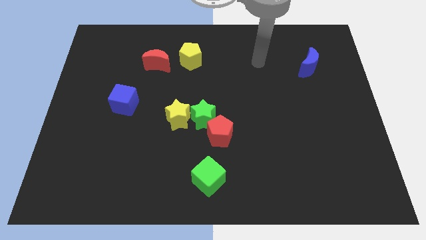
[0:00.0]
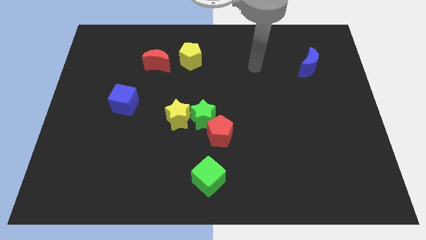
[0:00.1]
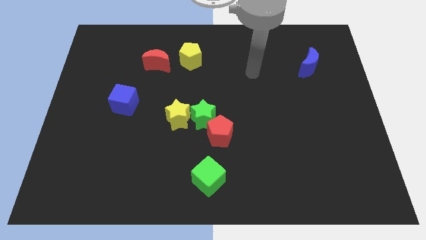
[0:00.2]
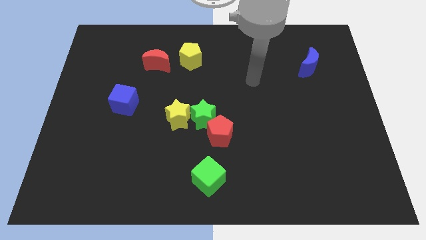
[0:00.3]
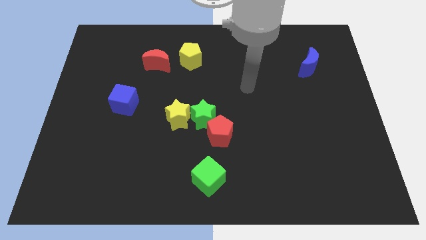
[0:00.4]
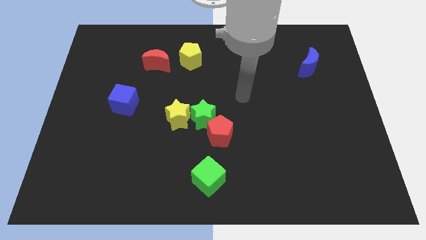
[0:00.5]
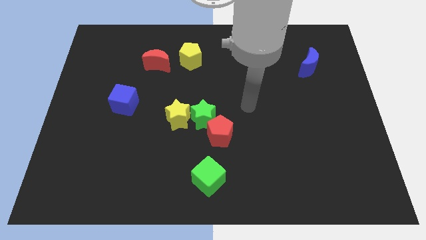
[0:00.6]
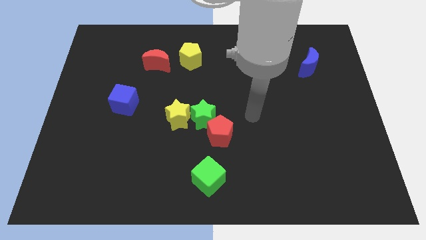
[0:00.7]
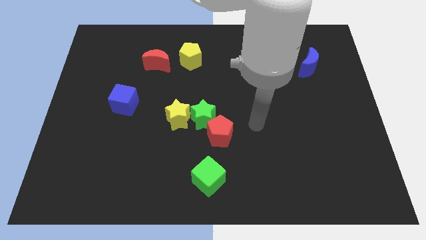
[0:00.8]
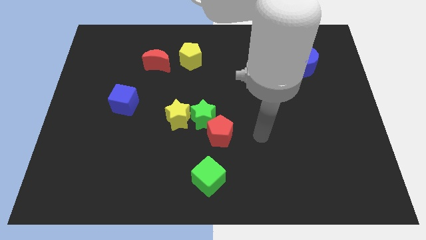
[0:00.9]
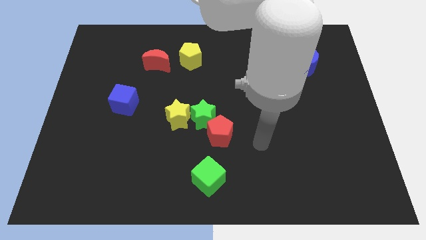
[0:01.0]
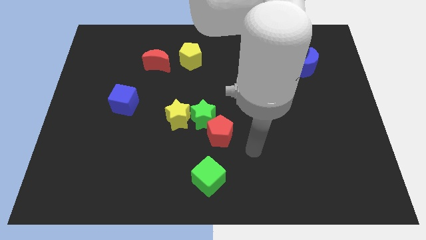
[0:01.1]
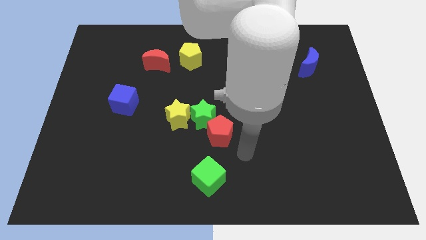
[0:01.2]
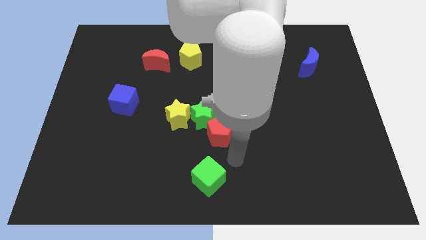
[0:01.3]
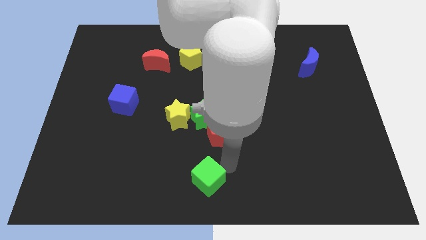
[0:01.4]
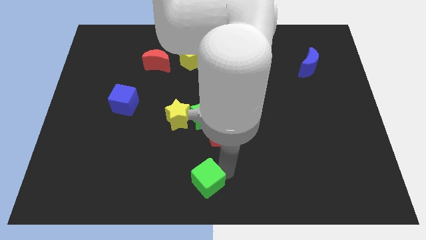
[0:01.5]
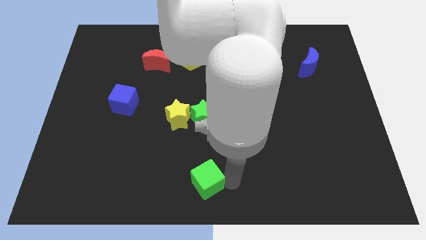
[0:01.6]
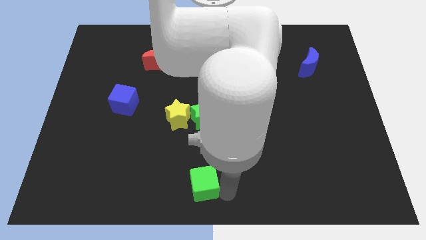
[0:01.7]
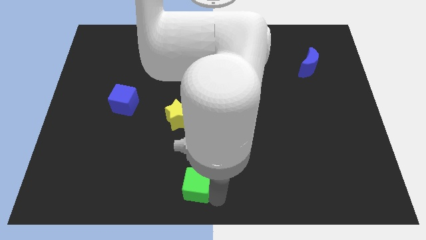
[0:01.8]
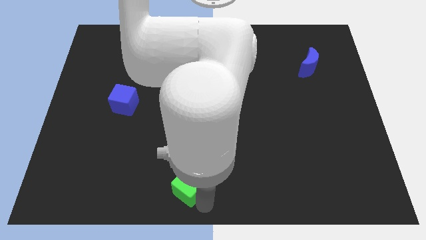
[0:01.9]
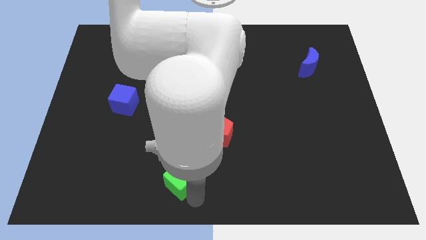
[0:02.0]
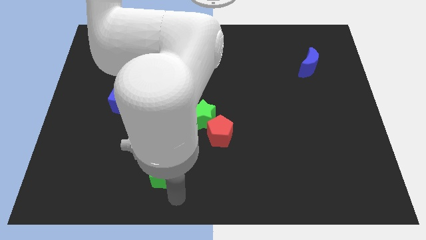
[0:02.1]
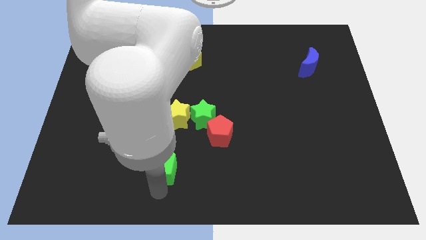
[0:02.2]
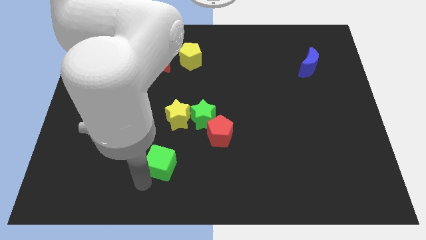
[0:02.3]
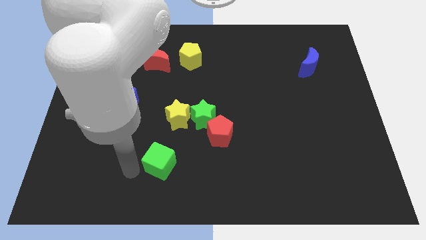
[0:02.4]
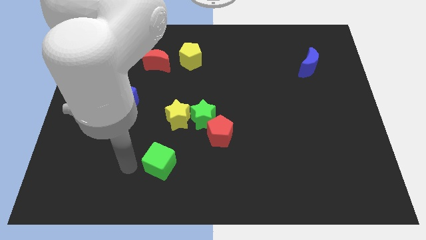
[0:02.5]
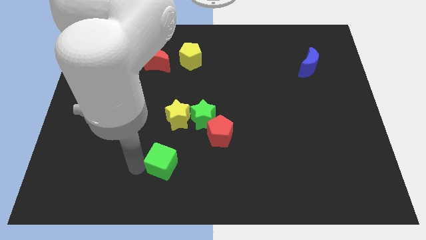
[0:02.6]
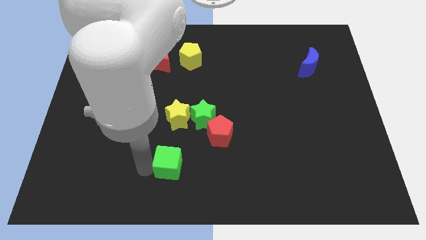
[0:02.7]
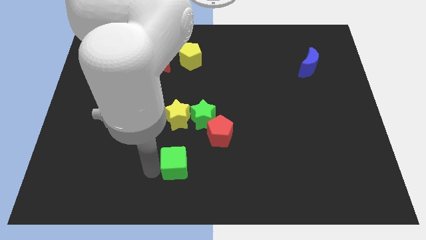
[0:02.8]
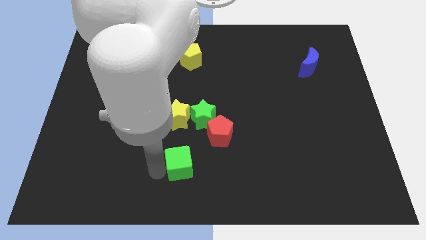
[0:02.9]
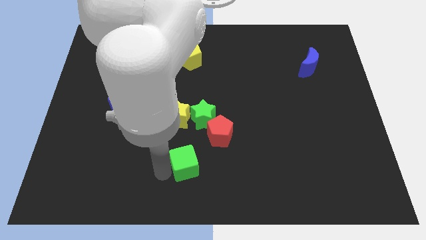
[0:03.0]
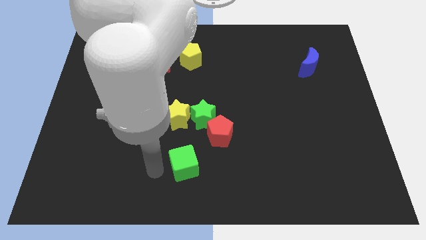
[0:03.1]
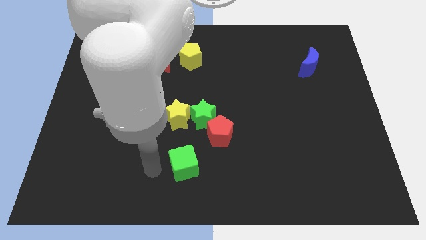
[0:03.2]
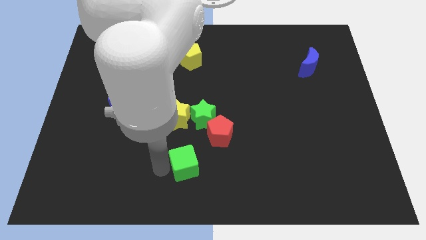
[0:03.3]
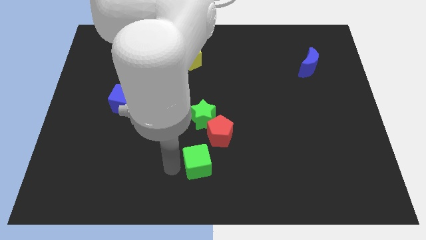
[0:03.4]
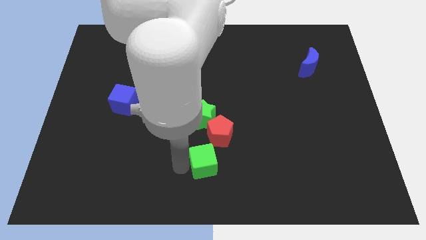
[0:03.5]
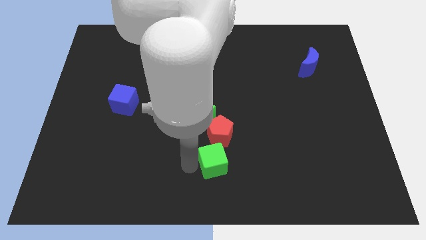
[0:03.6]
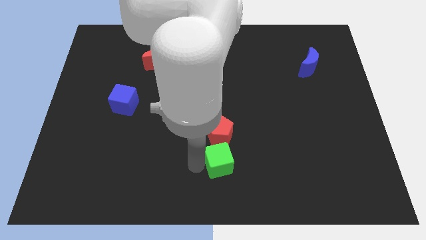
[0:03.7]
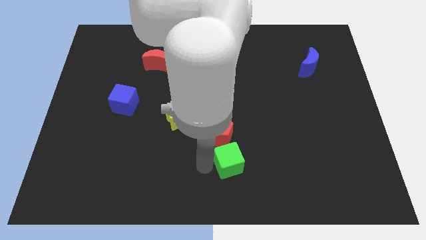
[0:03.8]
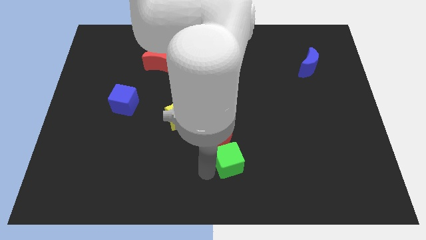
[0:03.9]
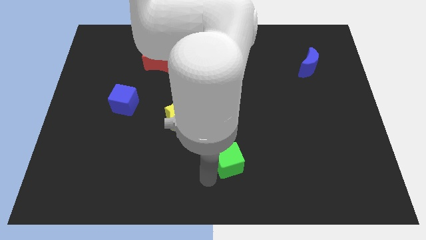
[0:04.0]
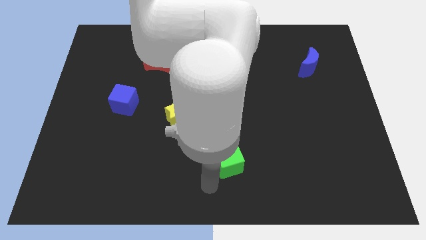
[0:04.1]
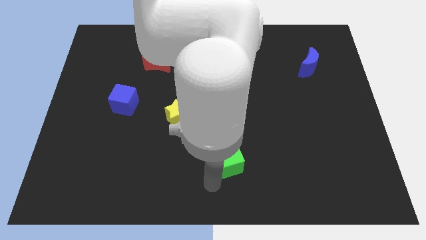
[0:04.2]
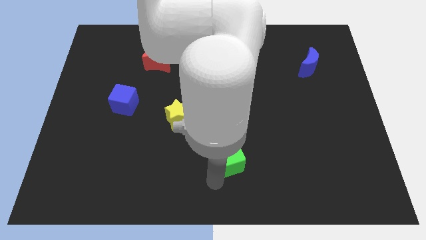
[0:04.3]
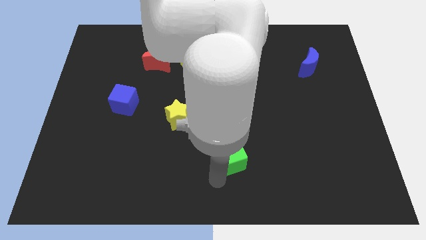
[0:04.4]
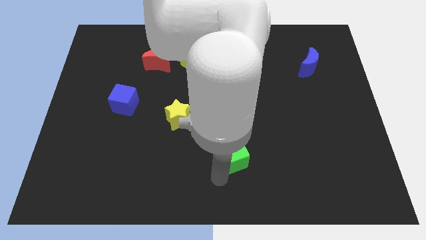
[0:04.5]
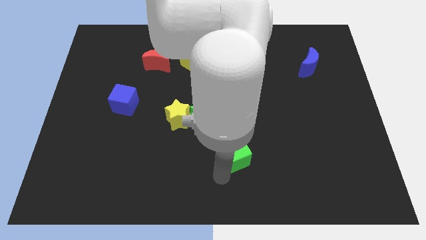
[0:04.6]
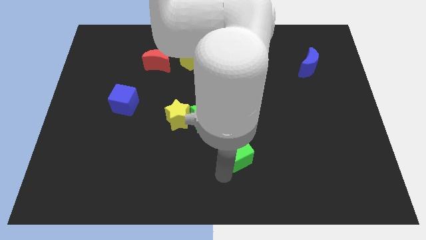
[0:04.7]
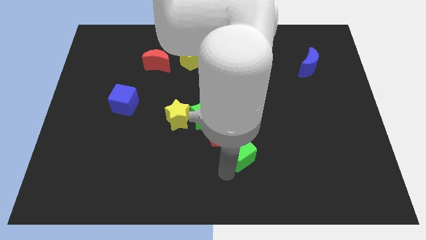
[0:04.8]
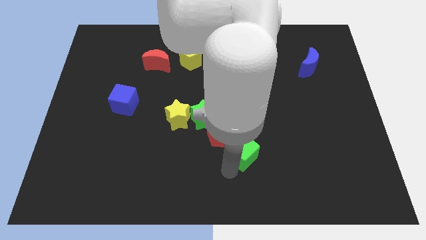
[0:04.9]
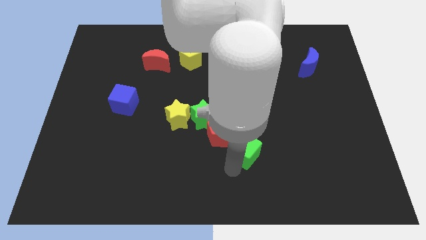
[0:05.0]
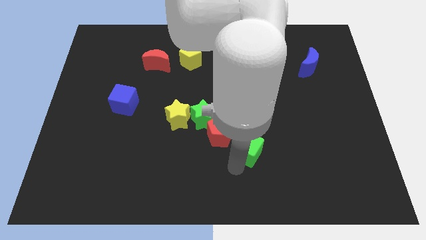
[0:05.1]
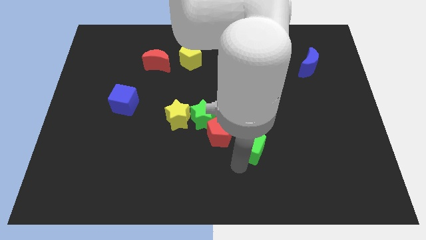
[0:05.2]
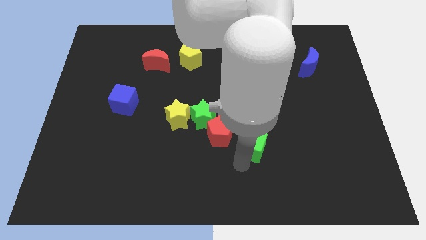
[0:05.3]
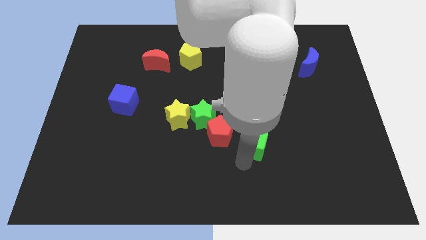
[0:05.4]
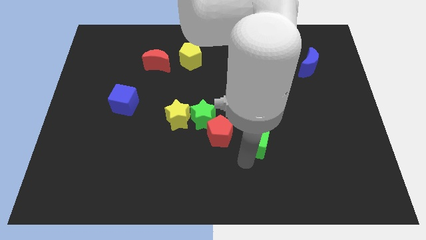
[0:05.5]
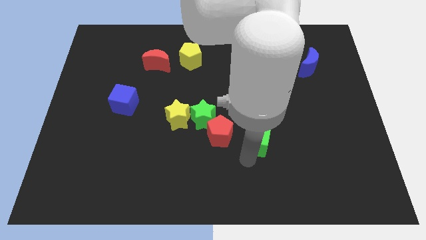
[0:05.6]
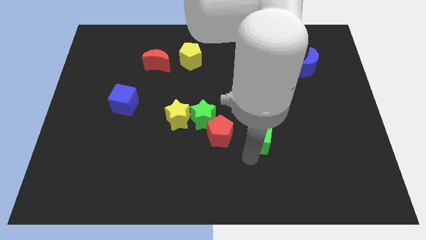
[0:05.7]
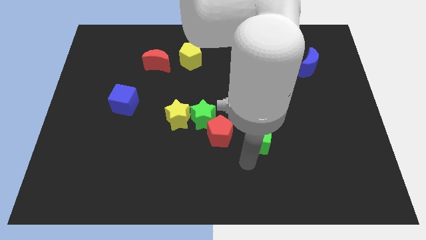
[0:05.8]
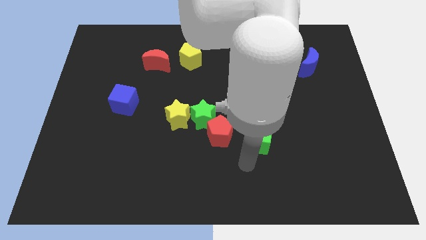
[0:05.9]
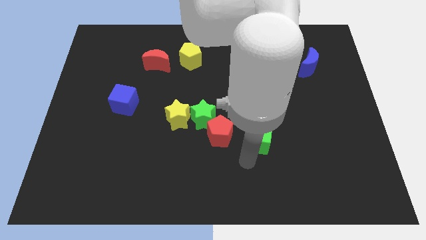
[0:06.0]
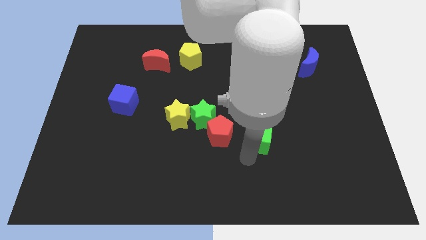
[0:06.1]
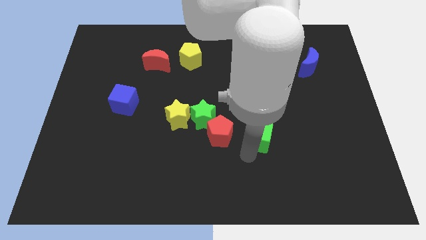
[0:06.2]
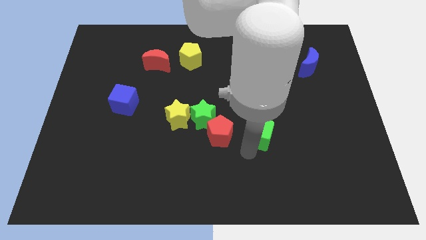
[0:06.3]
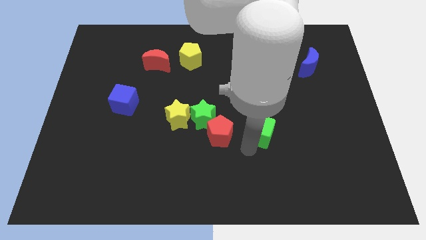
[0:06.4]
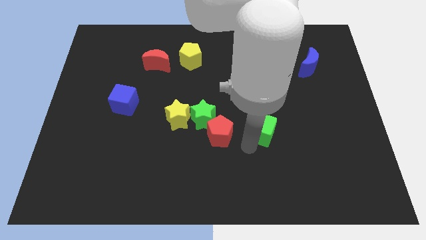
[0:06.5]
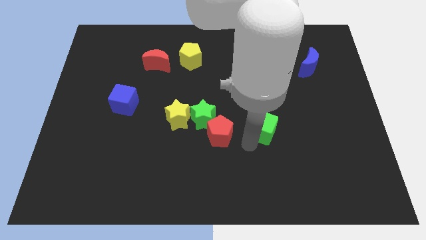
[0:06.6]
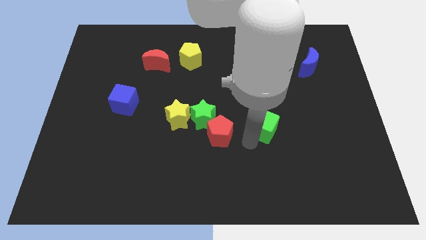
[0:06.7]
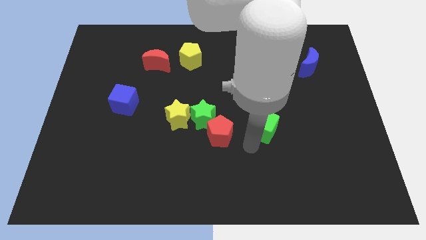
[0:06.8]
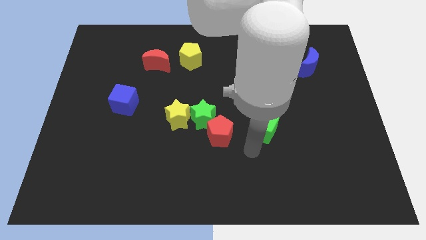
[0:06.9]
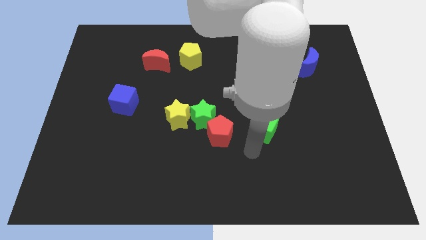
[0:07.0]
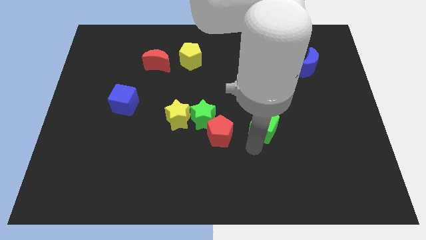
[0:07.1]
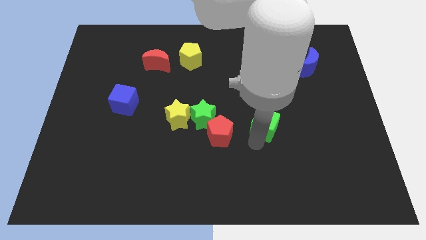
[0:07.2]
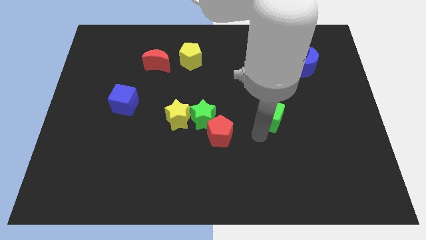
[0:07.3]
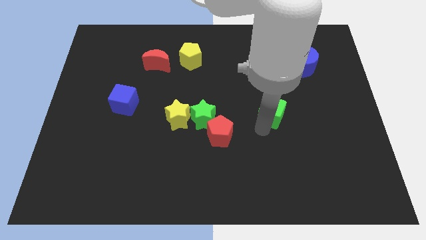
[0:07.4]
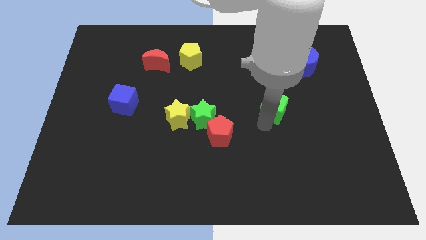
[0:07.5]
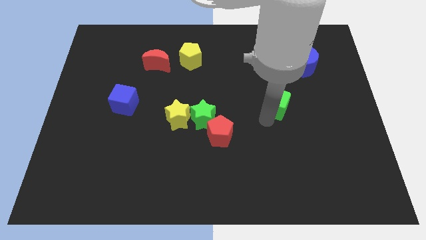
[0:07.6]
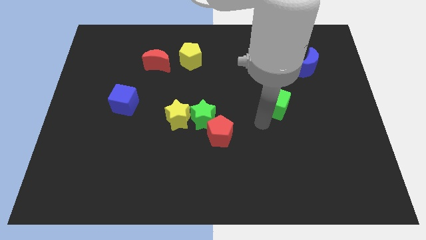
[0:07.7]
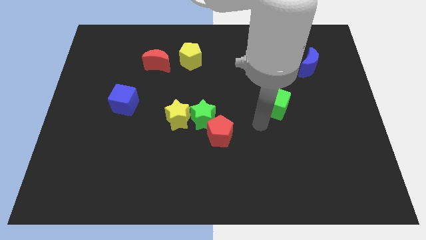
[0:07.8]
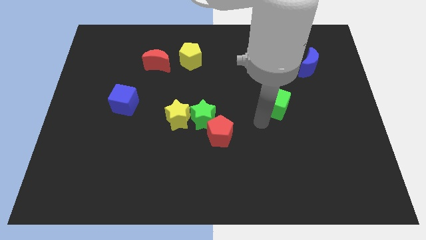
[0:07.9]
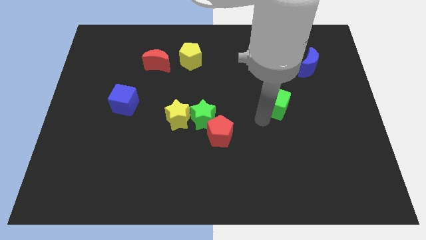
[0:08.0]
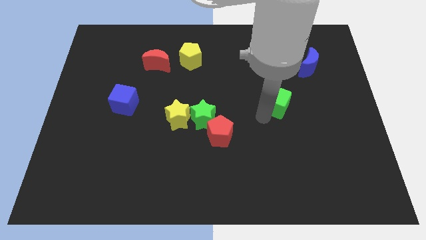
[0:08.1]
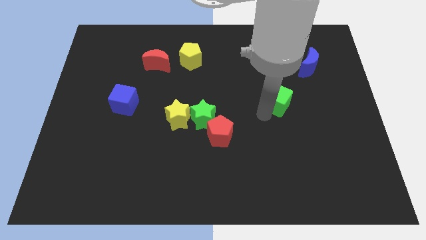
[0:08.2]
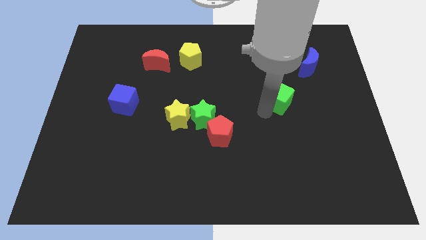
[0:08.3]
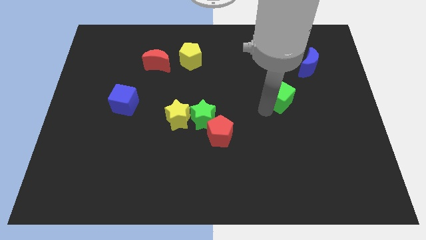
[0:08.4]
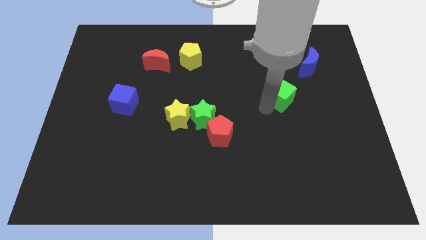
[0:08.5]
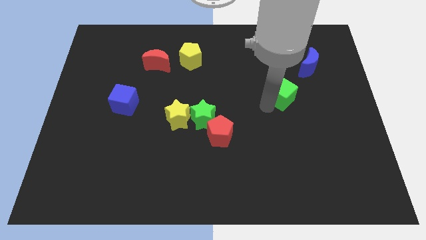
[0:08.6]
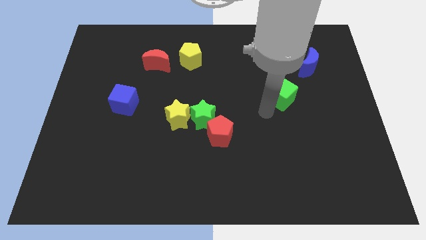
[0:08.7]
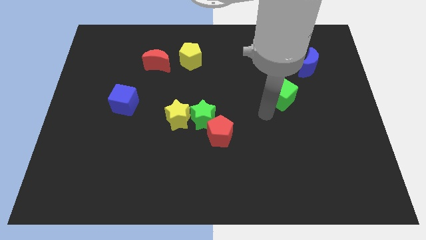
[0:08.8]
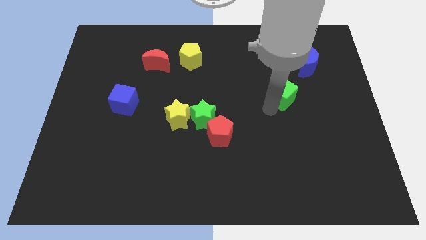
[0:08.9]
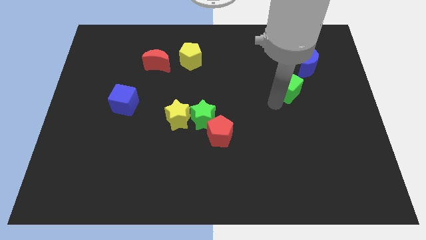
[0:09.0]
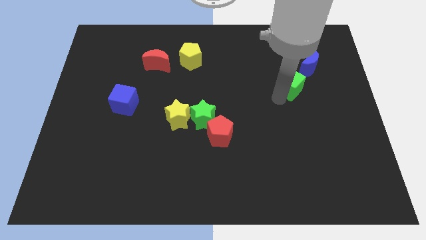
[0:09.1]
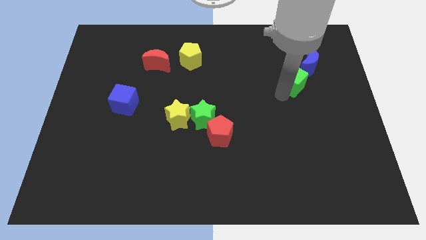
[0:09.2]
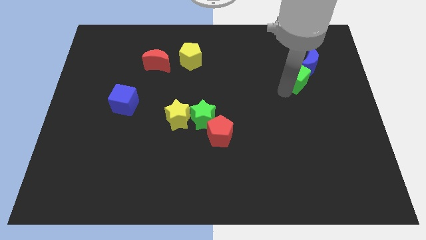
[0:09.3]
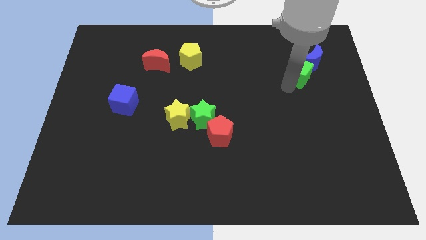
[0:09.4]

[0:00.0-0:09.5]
slide the green cube towards the blue moon
